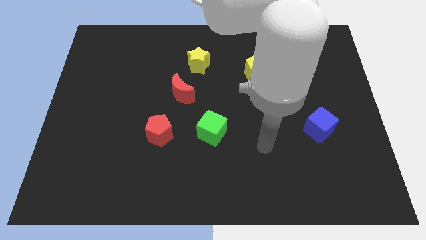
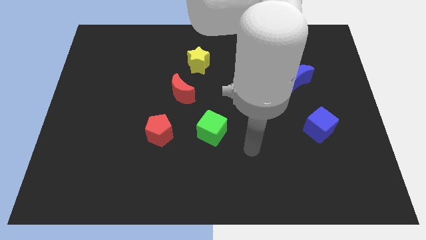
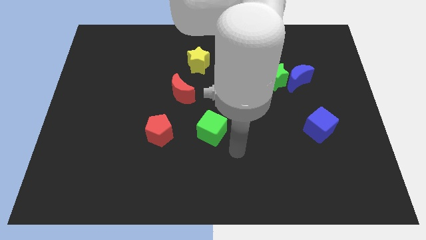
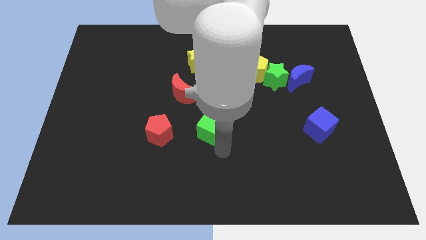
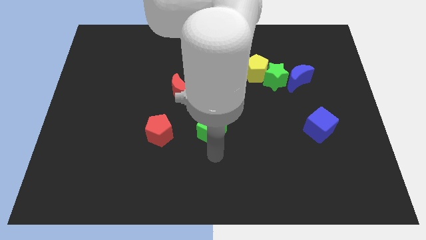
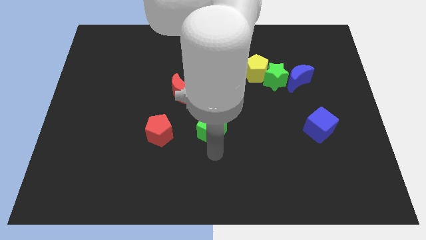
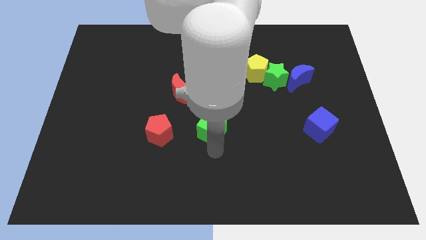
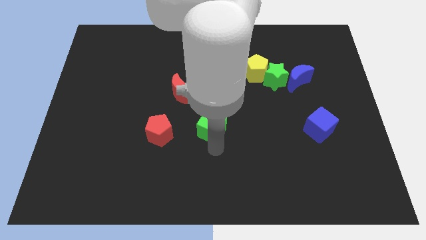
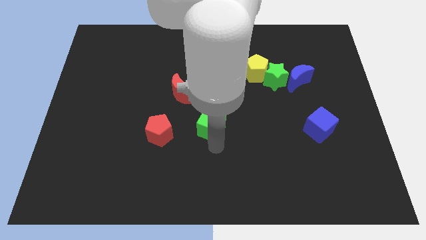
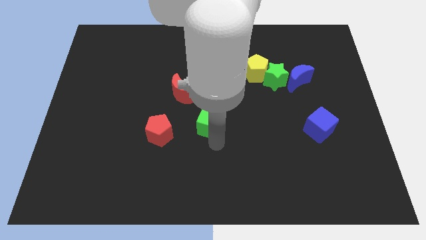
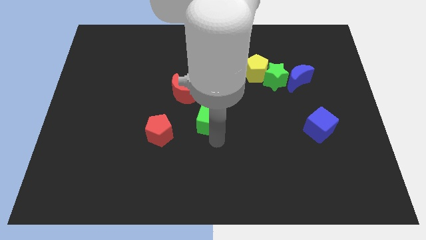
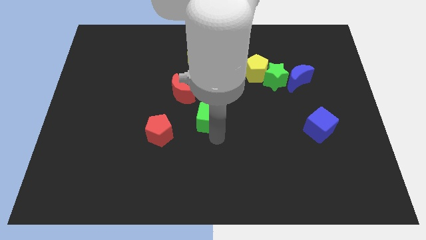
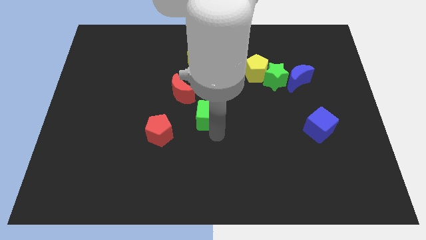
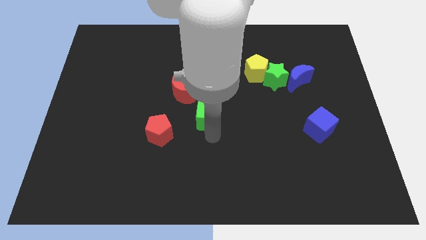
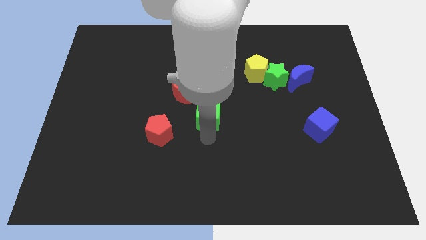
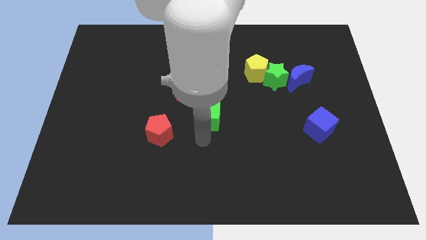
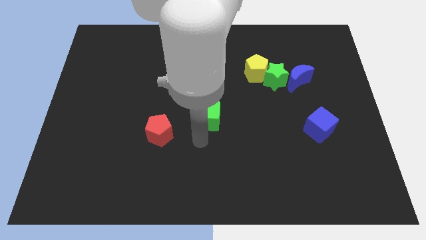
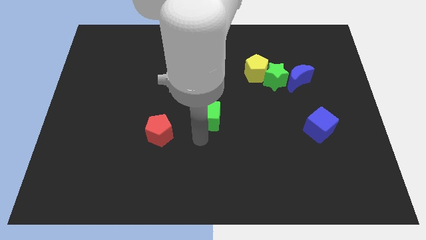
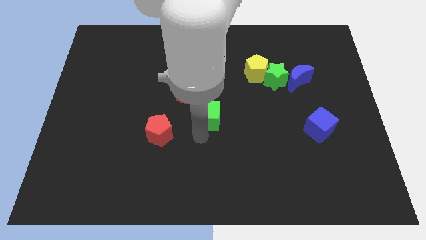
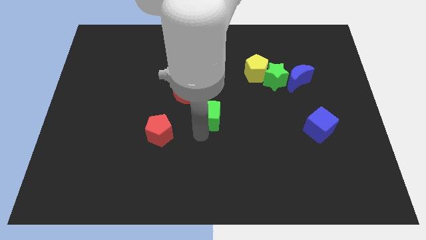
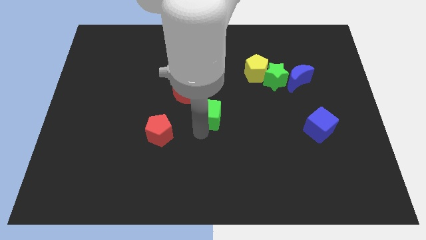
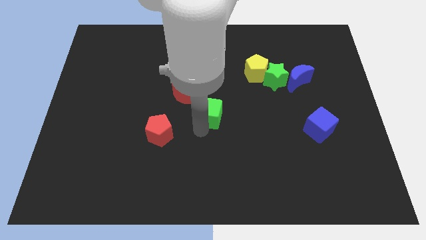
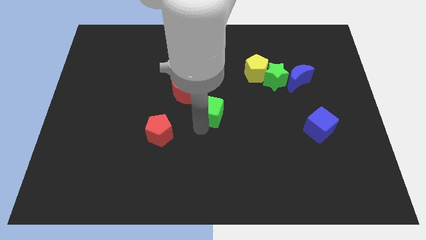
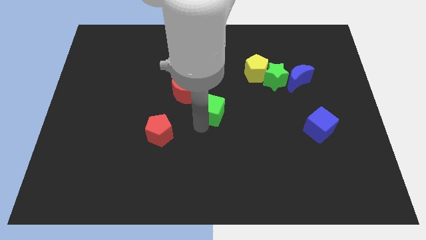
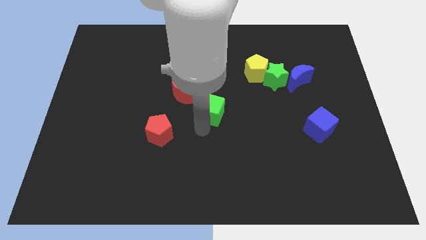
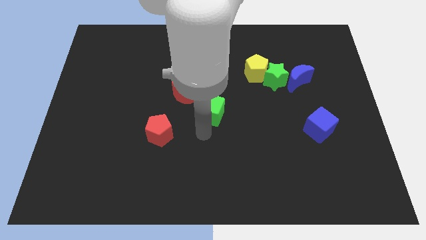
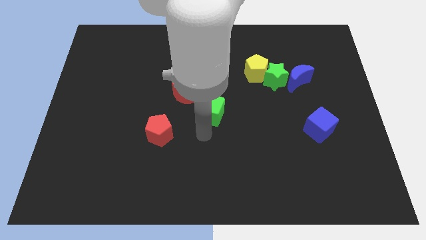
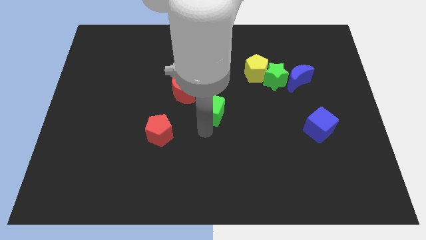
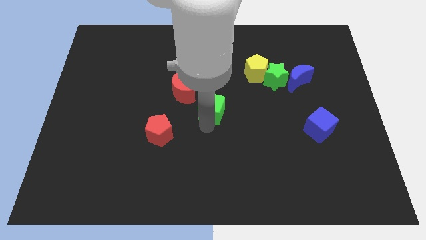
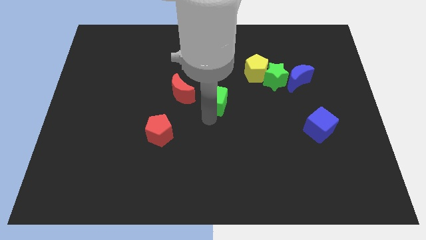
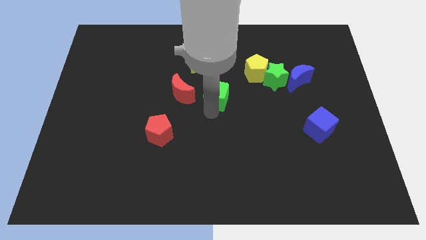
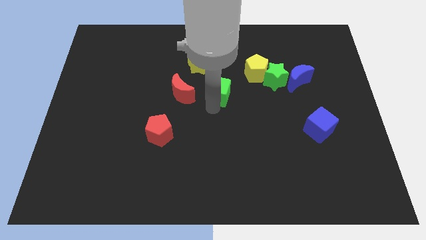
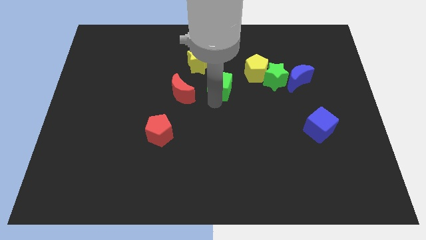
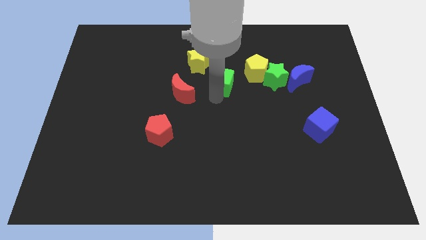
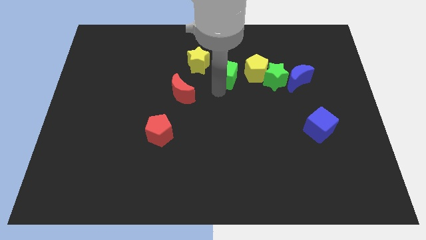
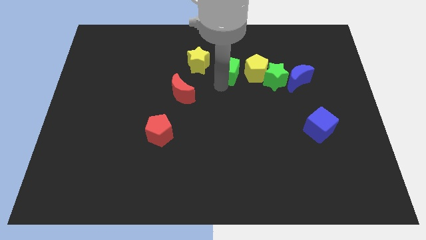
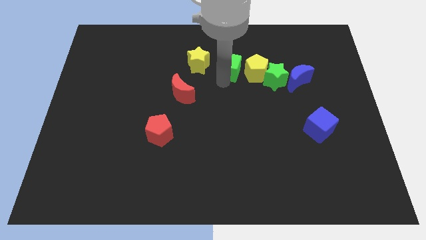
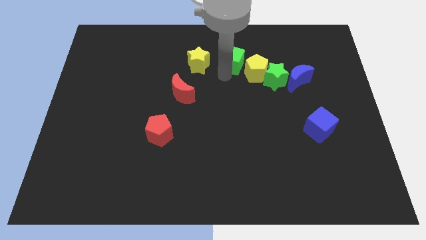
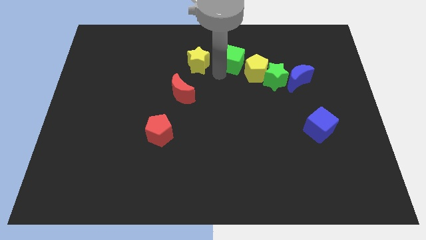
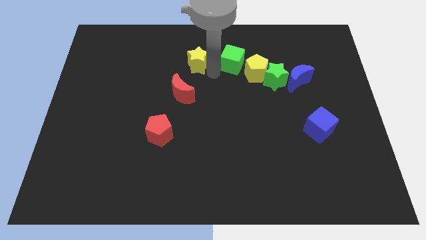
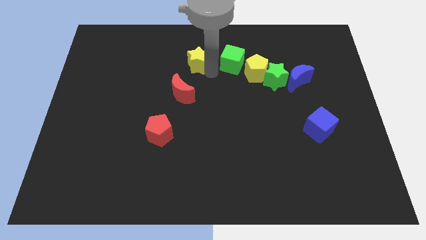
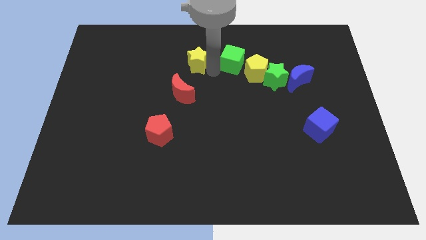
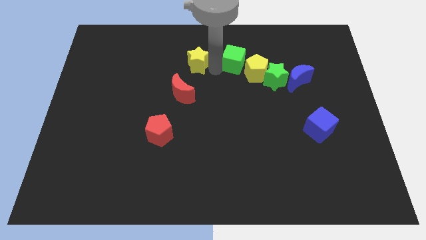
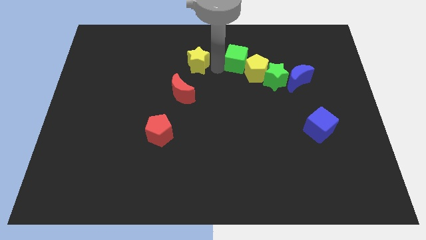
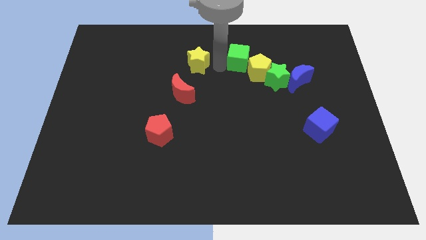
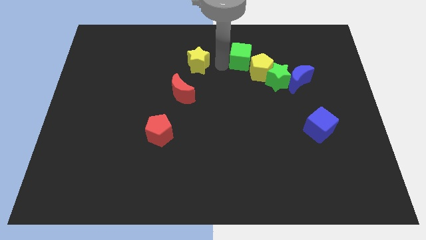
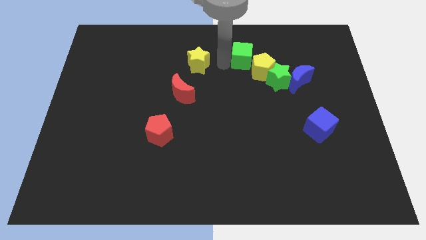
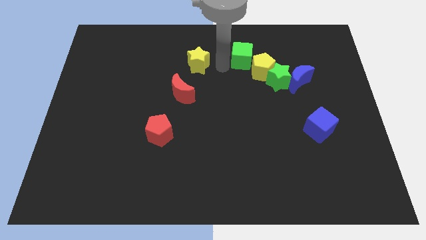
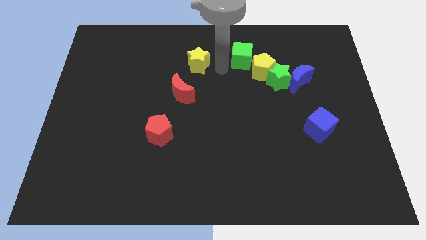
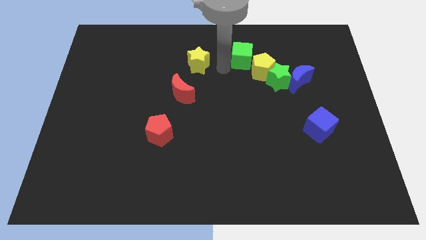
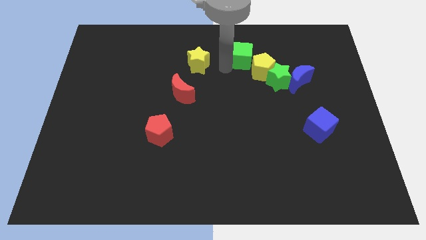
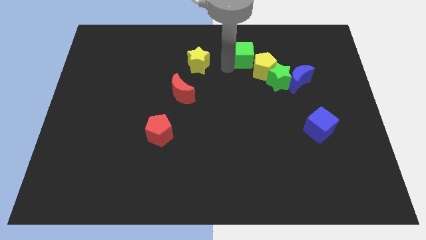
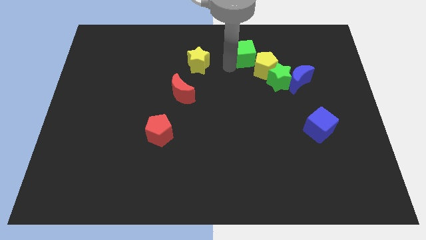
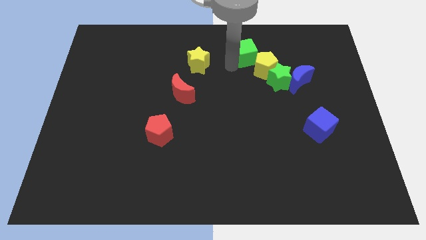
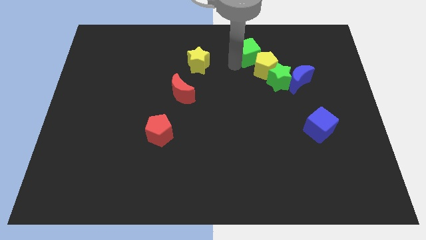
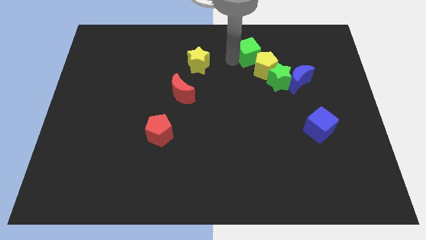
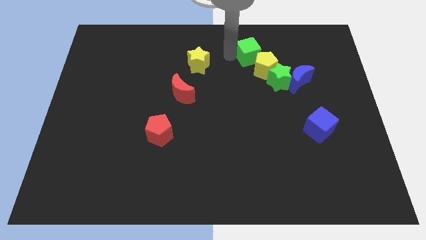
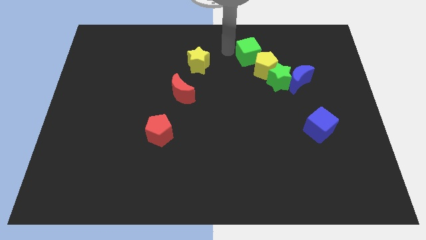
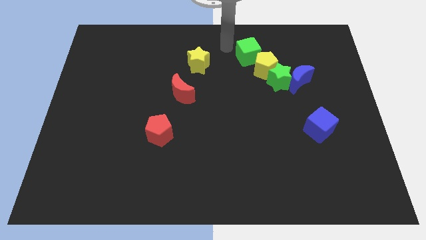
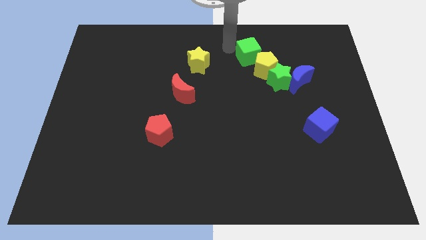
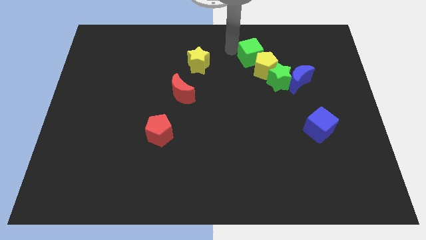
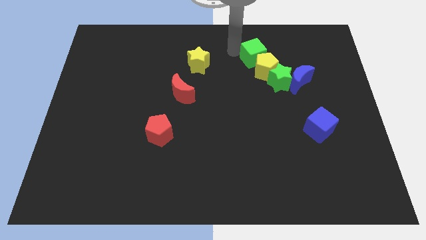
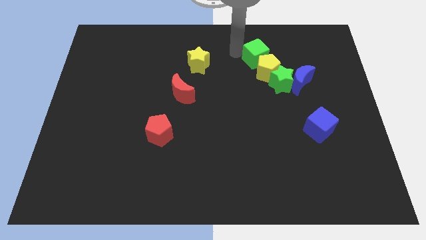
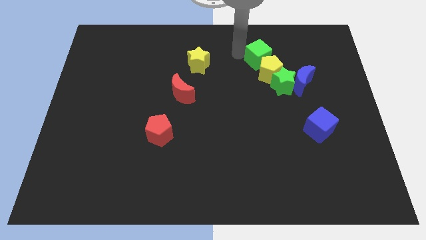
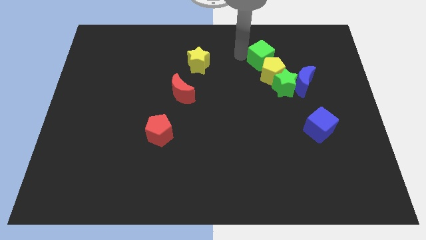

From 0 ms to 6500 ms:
slide the green cube to the top left of the blue moon
